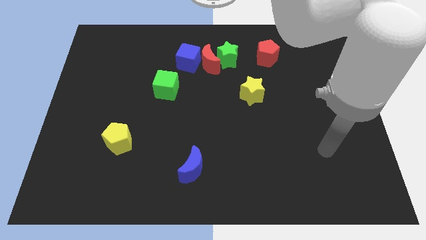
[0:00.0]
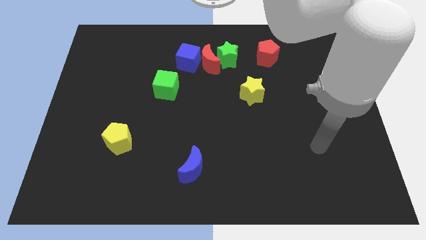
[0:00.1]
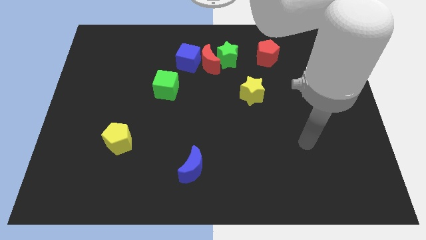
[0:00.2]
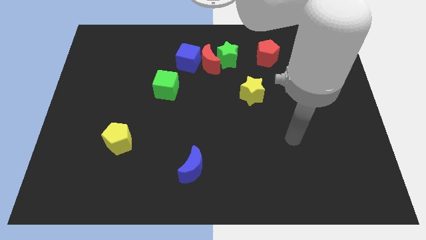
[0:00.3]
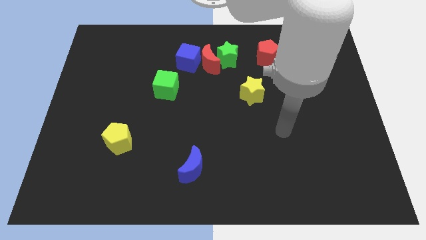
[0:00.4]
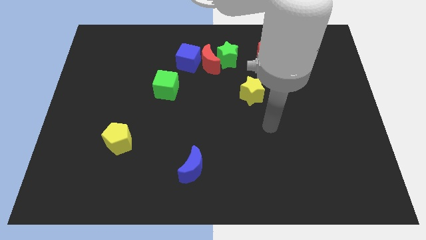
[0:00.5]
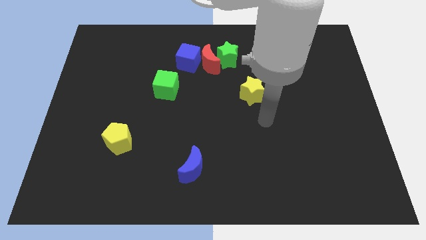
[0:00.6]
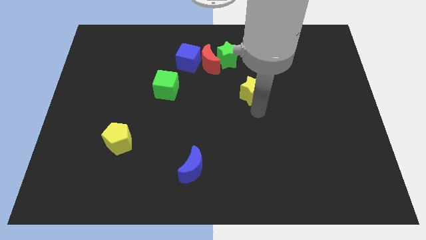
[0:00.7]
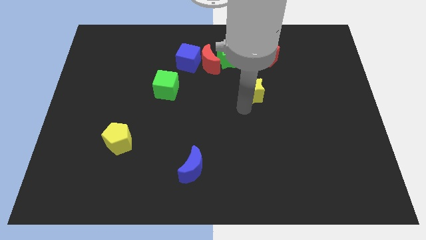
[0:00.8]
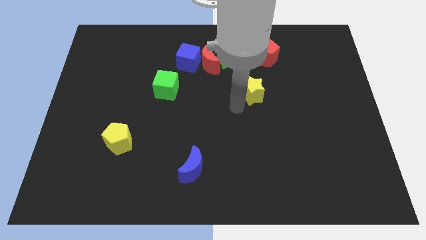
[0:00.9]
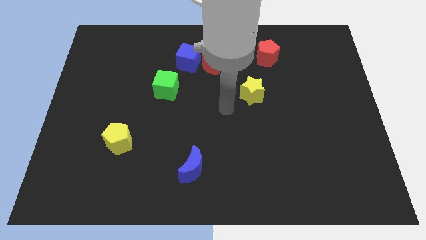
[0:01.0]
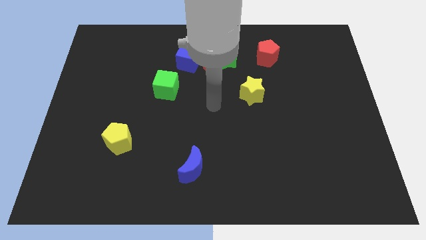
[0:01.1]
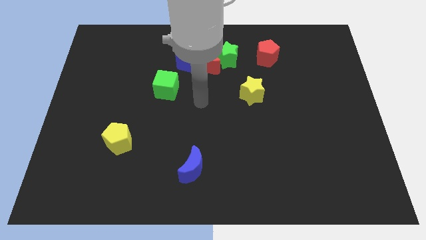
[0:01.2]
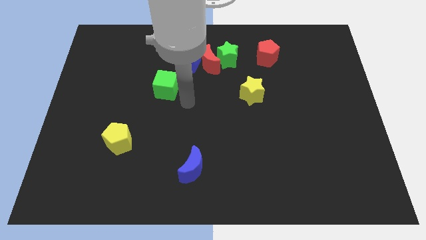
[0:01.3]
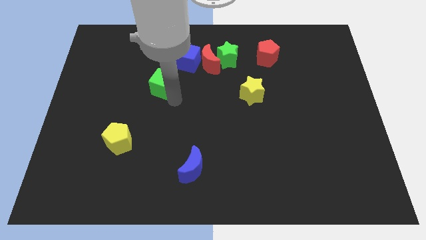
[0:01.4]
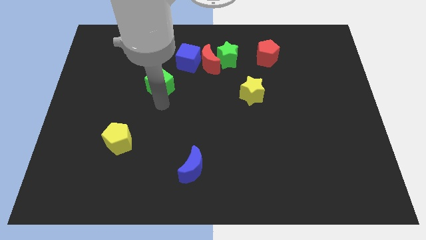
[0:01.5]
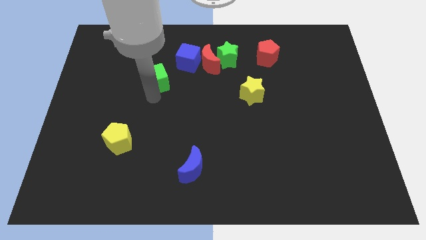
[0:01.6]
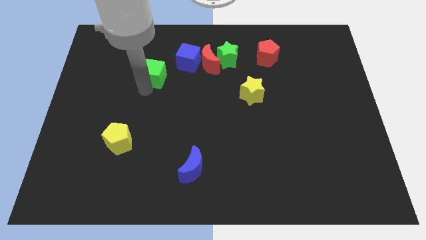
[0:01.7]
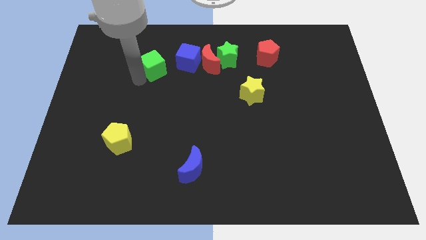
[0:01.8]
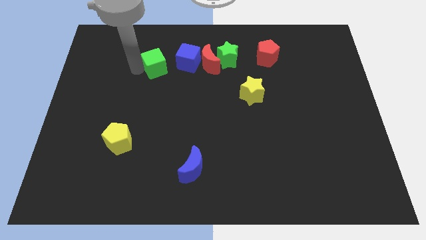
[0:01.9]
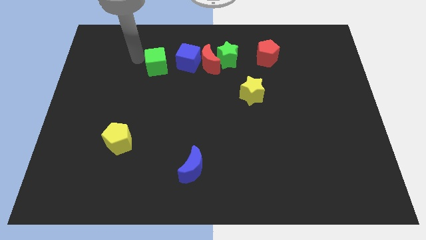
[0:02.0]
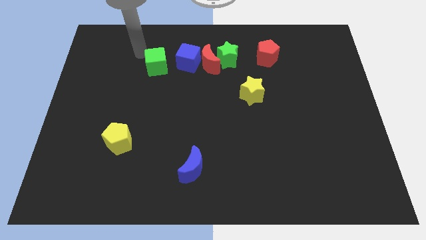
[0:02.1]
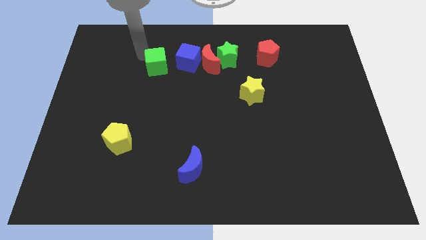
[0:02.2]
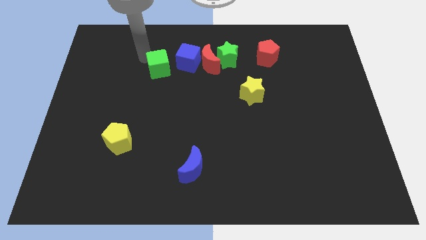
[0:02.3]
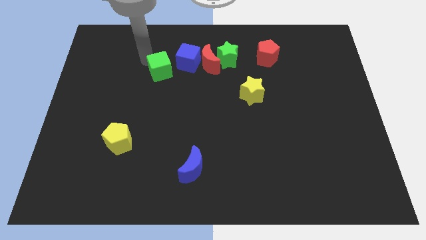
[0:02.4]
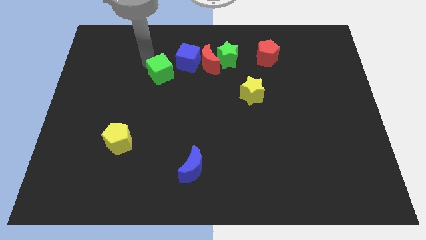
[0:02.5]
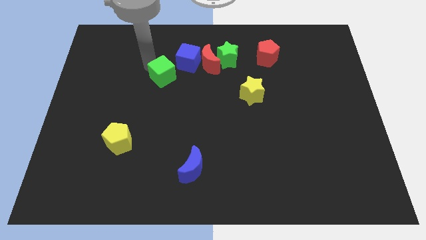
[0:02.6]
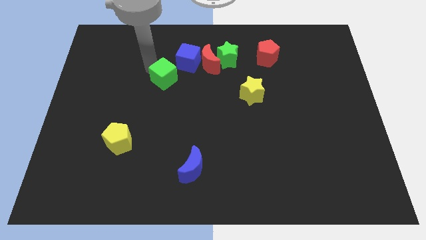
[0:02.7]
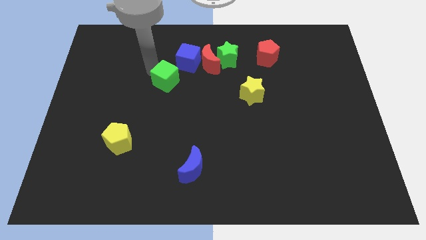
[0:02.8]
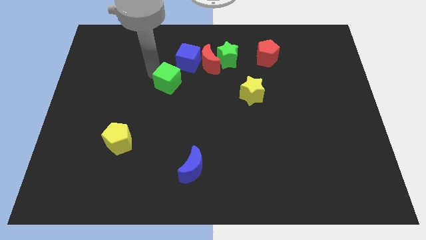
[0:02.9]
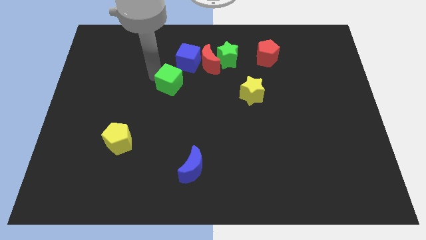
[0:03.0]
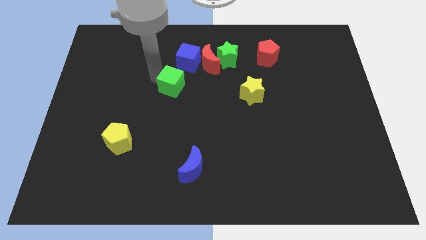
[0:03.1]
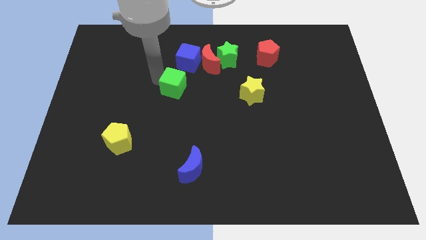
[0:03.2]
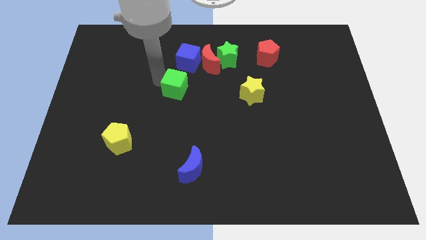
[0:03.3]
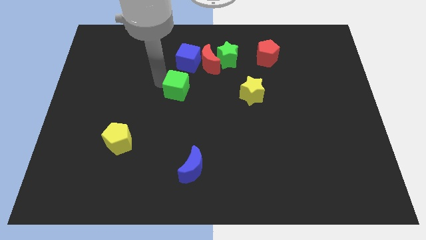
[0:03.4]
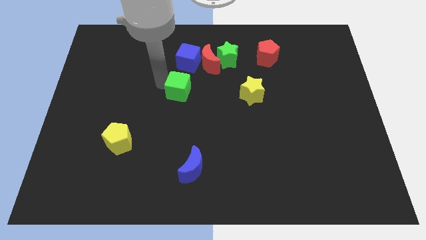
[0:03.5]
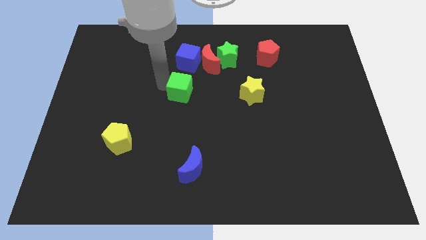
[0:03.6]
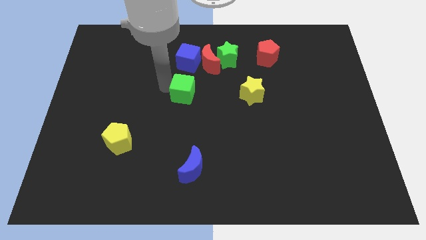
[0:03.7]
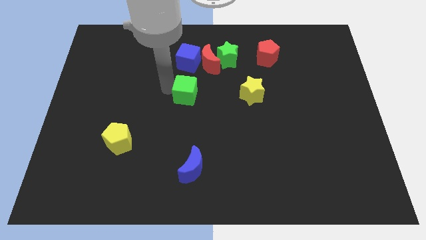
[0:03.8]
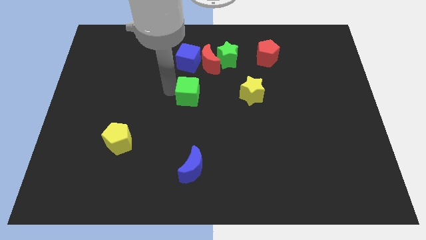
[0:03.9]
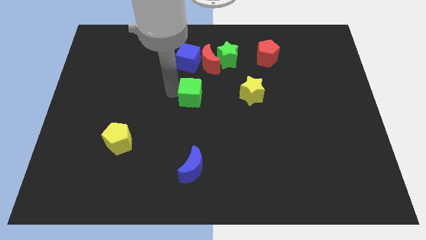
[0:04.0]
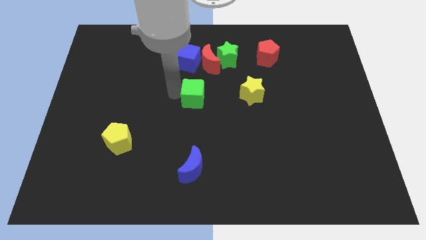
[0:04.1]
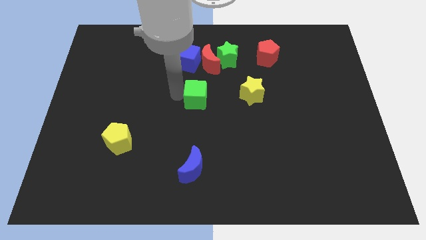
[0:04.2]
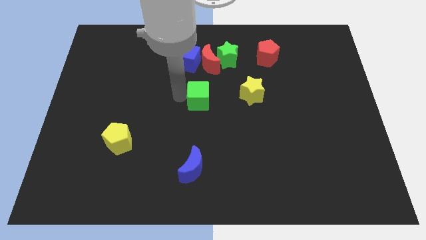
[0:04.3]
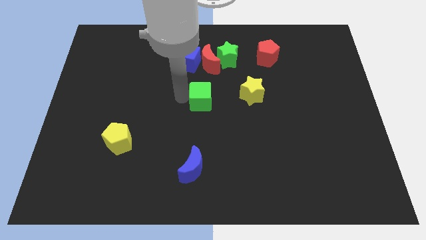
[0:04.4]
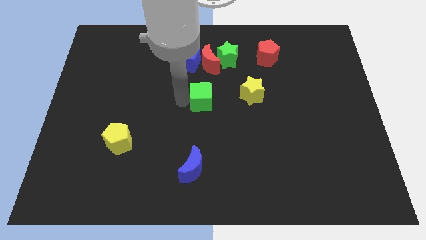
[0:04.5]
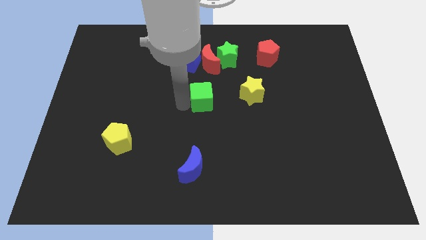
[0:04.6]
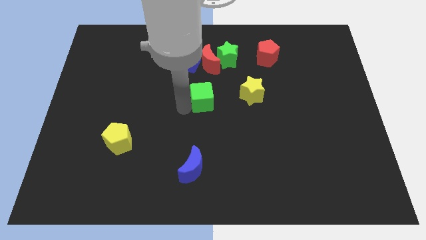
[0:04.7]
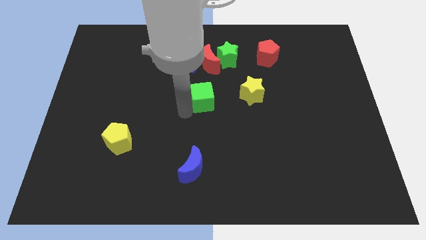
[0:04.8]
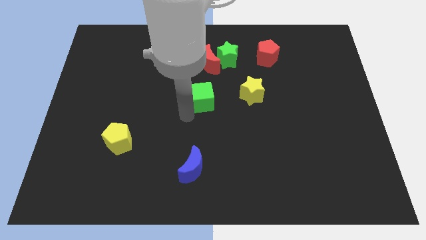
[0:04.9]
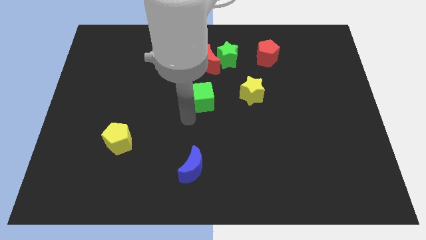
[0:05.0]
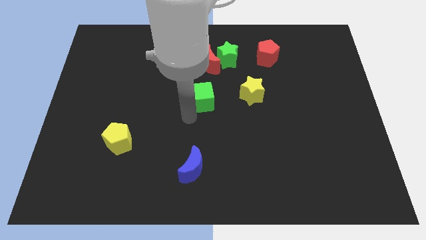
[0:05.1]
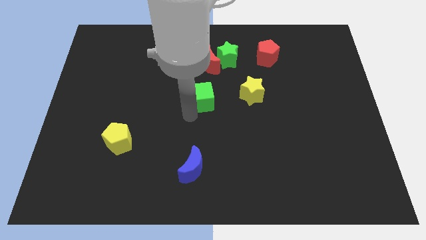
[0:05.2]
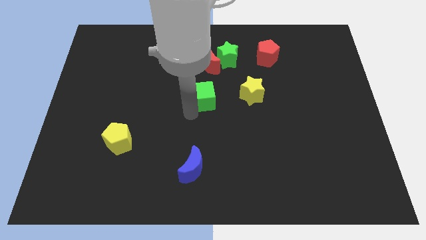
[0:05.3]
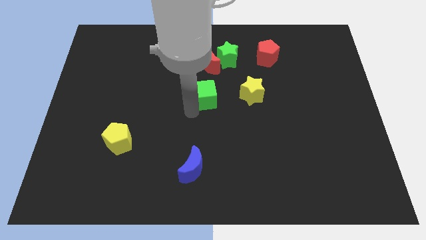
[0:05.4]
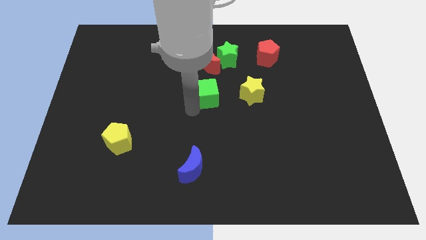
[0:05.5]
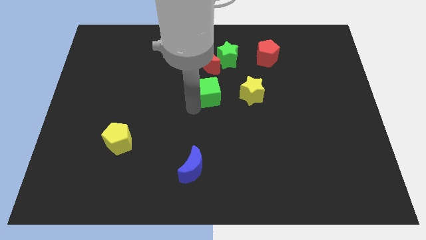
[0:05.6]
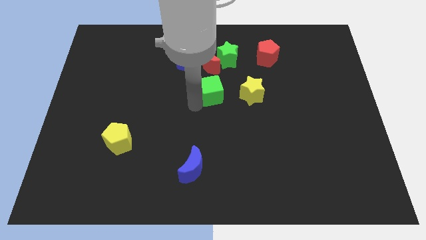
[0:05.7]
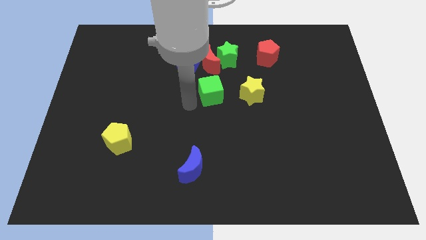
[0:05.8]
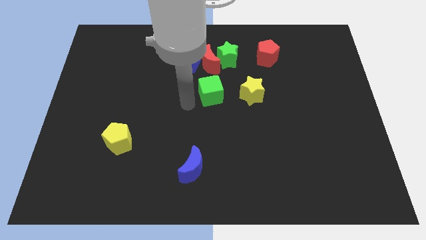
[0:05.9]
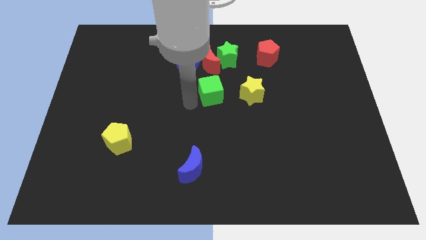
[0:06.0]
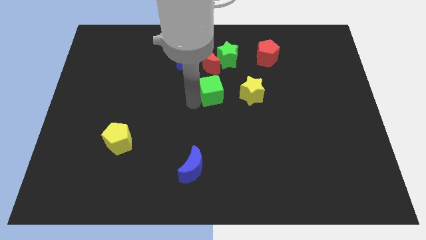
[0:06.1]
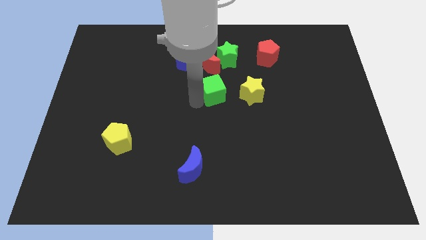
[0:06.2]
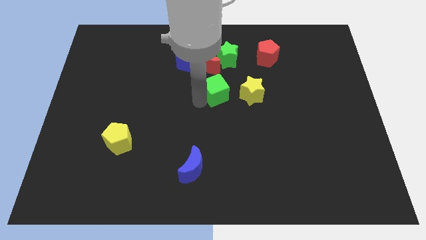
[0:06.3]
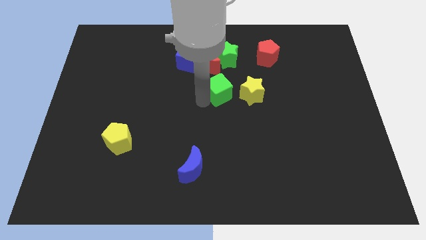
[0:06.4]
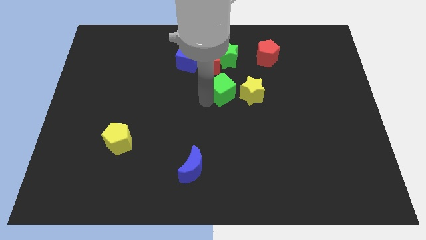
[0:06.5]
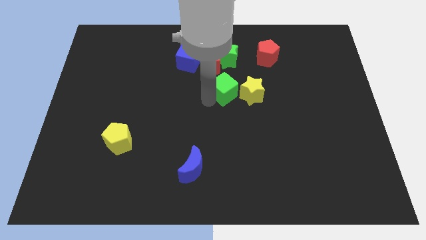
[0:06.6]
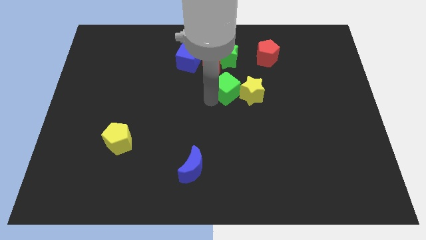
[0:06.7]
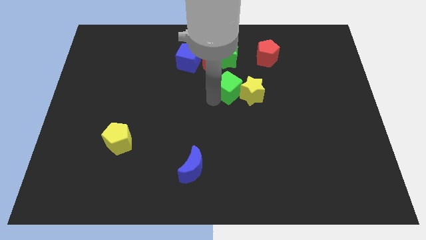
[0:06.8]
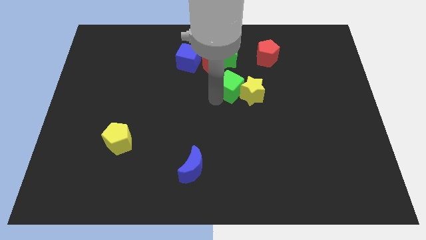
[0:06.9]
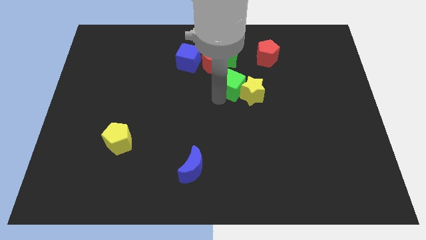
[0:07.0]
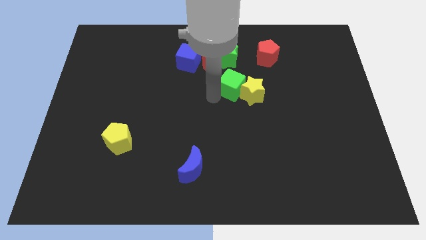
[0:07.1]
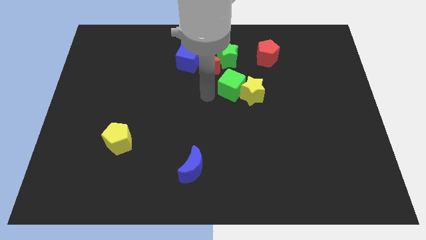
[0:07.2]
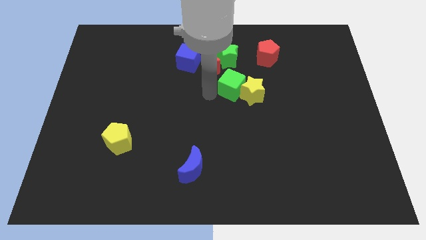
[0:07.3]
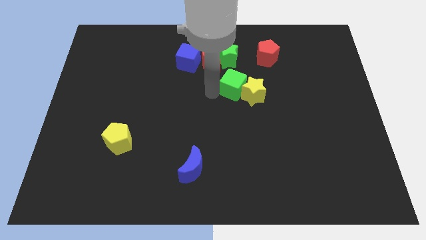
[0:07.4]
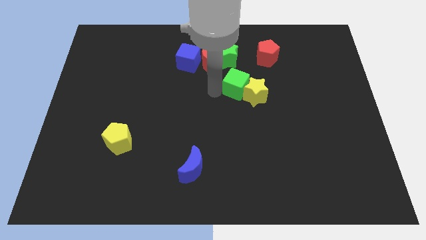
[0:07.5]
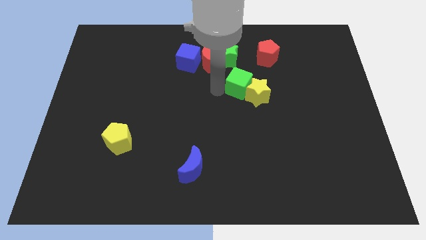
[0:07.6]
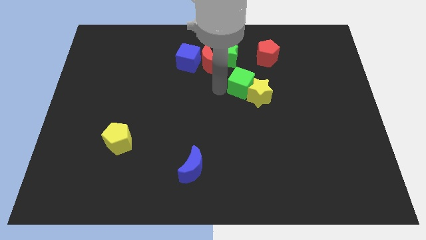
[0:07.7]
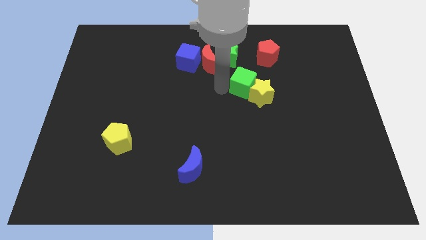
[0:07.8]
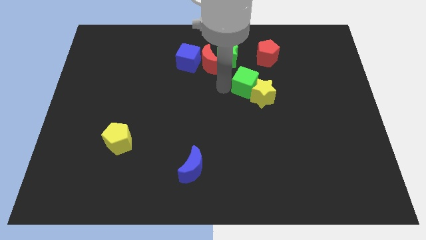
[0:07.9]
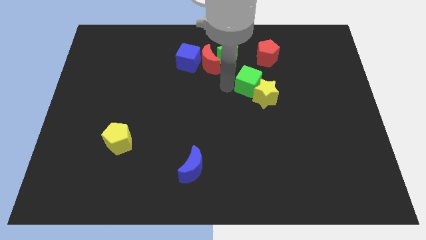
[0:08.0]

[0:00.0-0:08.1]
move the green cube right
